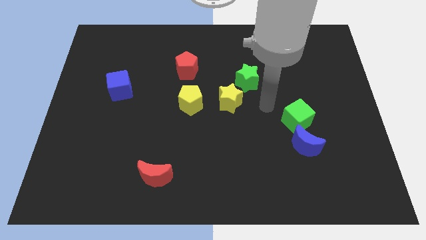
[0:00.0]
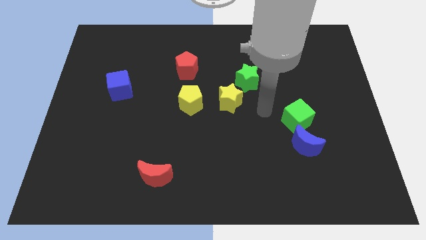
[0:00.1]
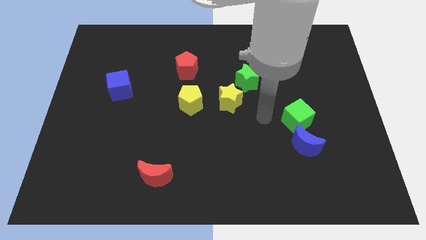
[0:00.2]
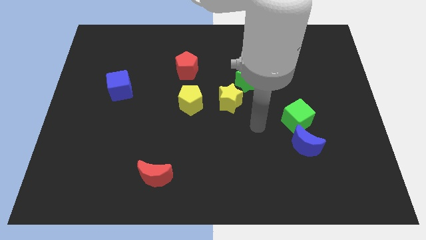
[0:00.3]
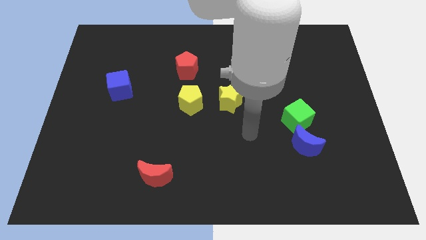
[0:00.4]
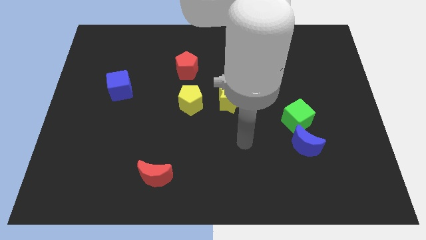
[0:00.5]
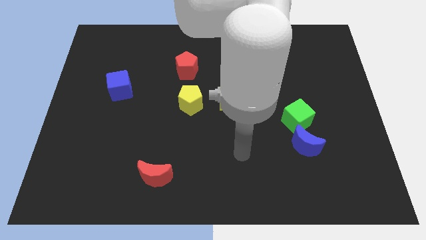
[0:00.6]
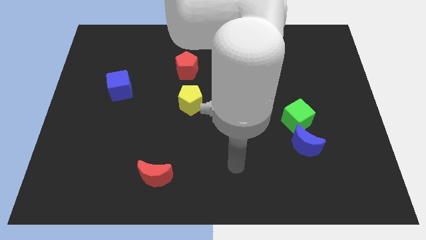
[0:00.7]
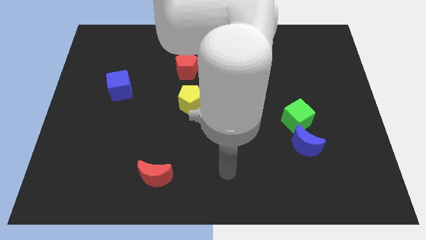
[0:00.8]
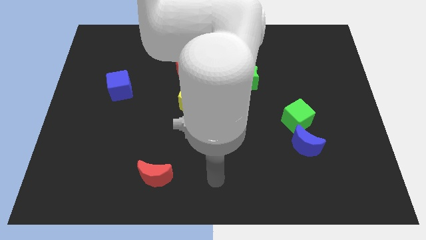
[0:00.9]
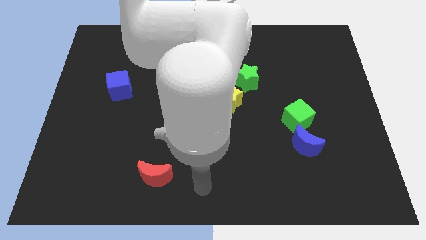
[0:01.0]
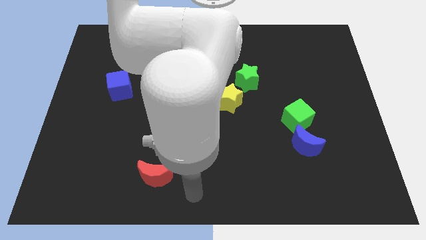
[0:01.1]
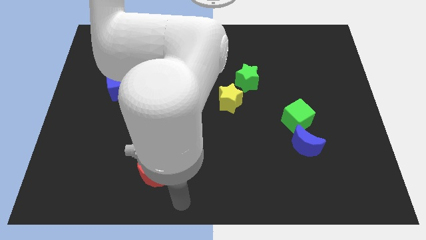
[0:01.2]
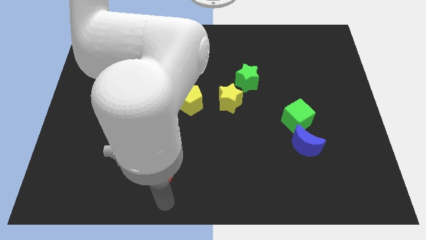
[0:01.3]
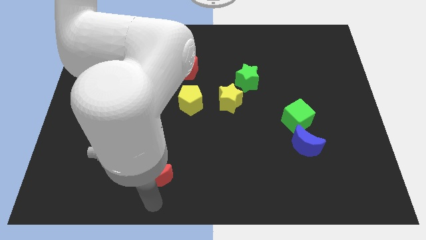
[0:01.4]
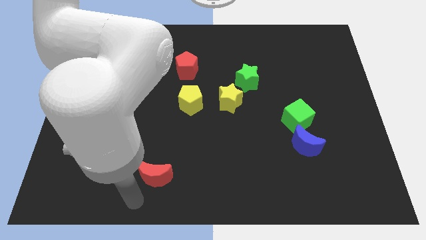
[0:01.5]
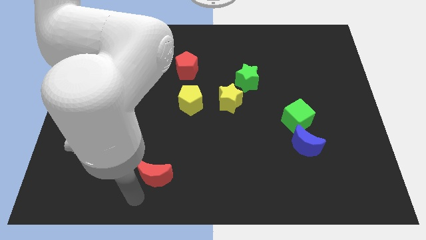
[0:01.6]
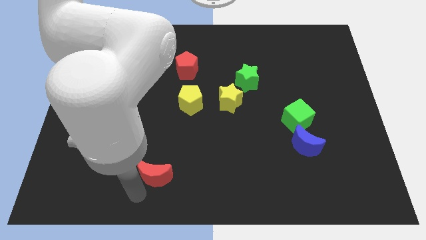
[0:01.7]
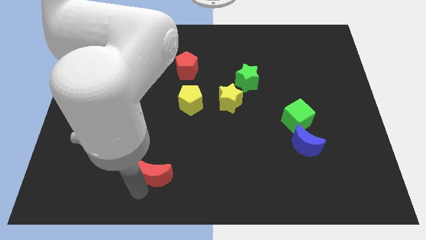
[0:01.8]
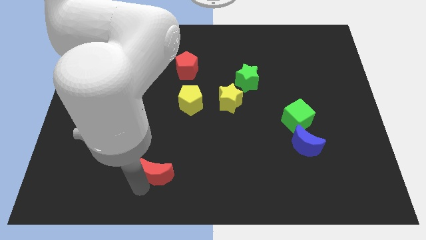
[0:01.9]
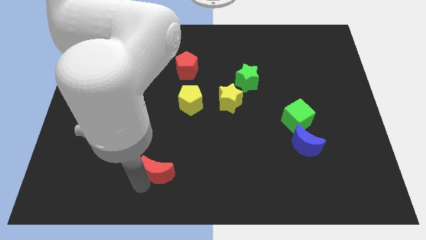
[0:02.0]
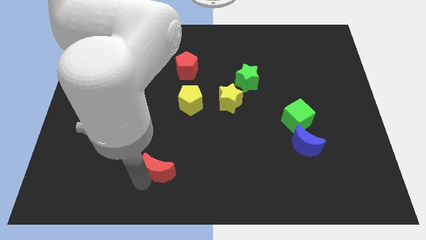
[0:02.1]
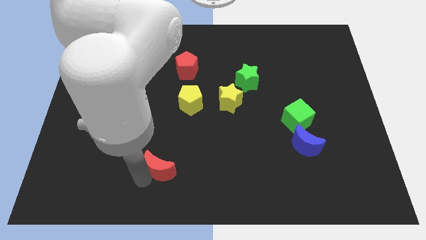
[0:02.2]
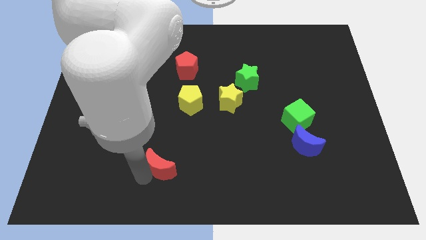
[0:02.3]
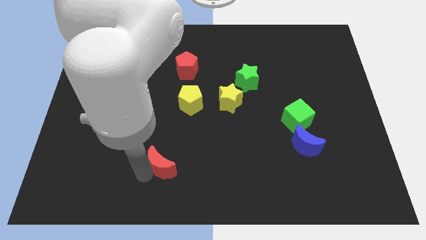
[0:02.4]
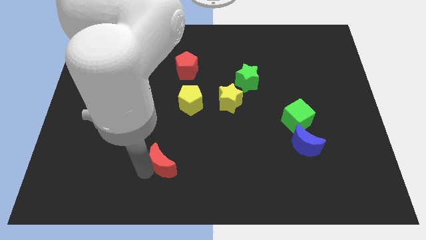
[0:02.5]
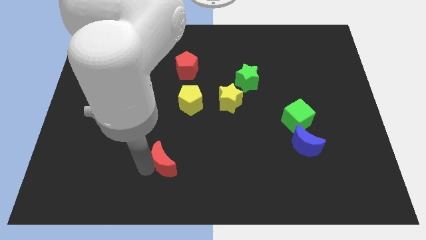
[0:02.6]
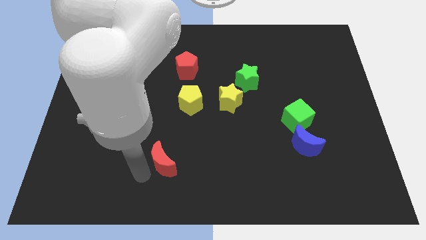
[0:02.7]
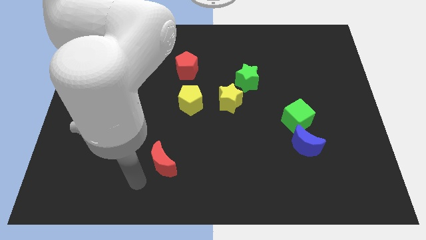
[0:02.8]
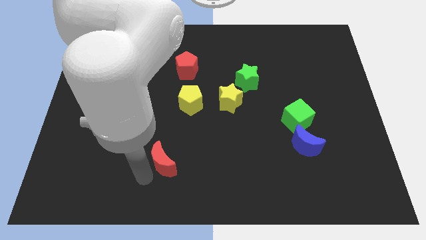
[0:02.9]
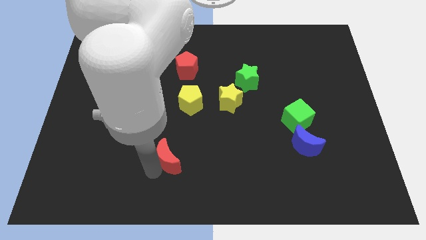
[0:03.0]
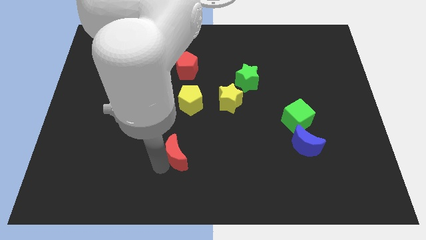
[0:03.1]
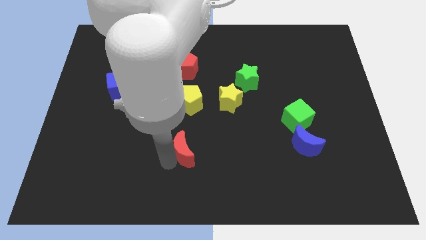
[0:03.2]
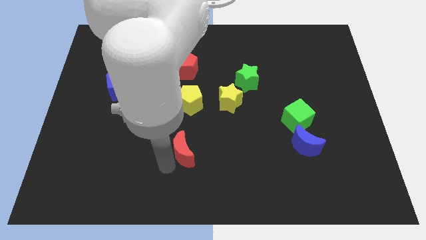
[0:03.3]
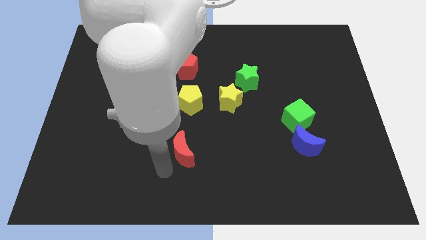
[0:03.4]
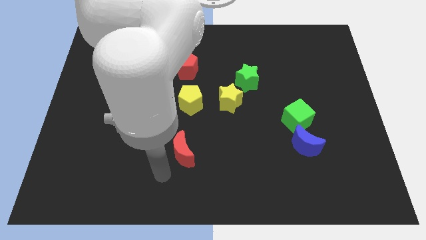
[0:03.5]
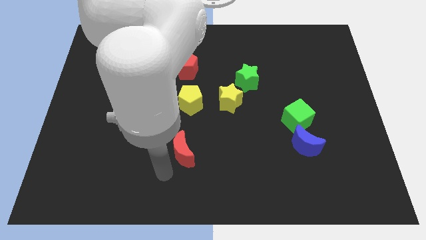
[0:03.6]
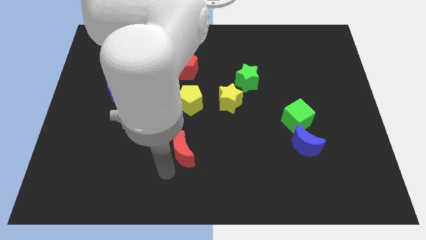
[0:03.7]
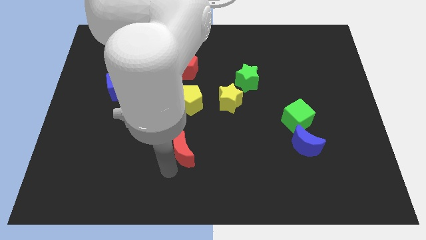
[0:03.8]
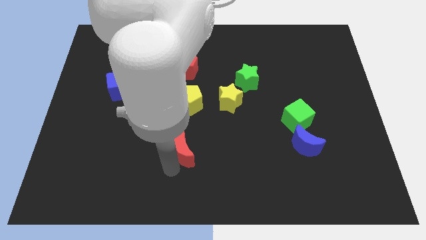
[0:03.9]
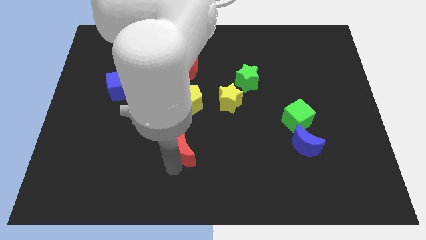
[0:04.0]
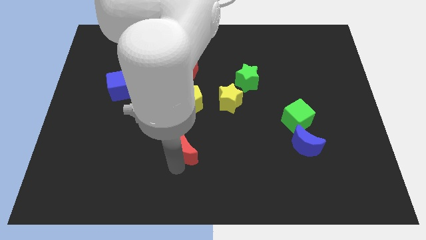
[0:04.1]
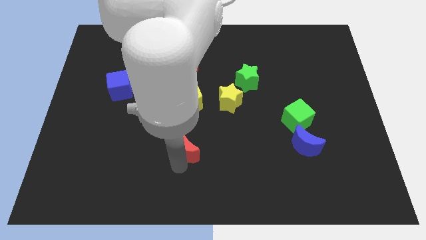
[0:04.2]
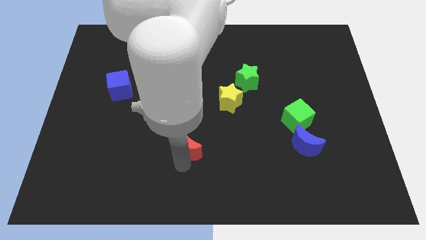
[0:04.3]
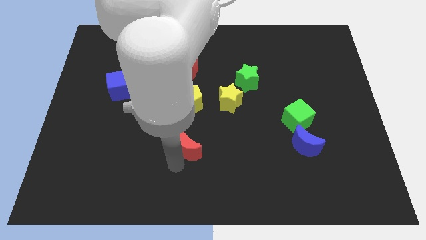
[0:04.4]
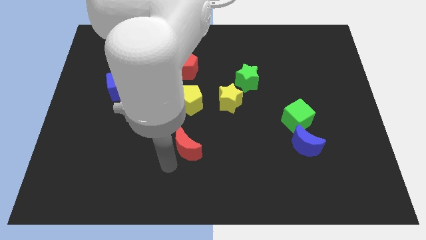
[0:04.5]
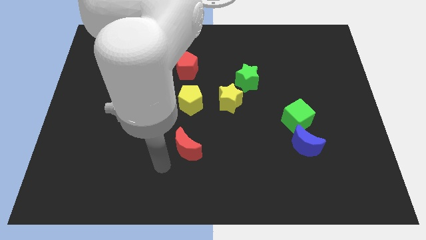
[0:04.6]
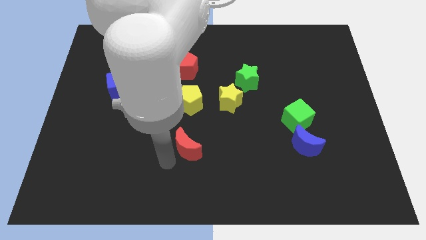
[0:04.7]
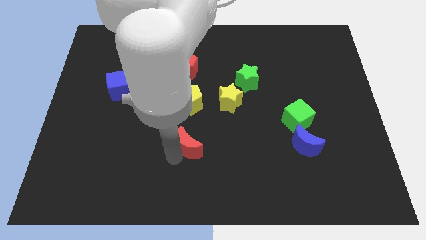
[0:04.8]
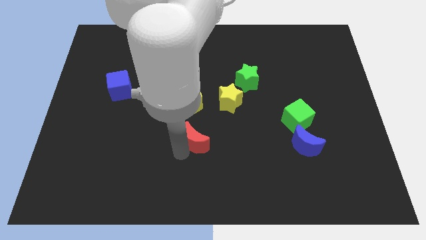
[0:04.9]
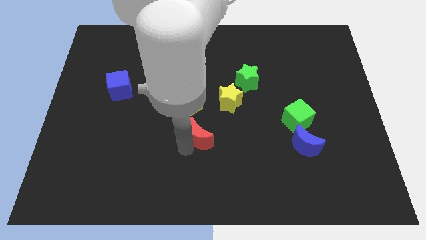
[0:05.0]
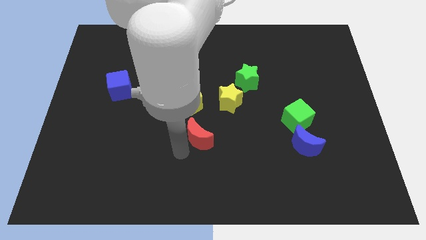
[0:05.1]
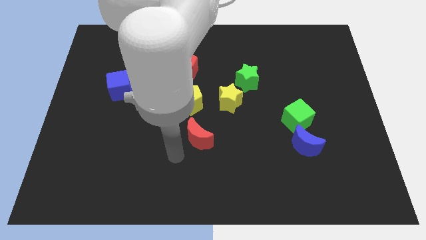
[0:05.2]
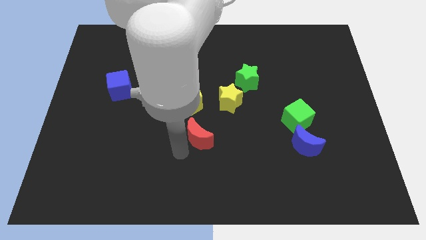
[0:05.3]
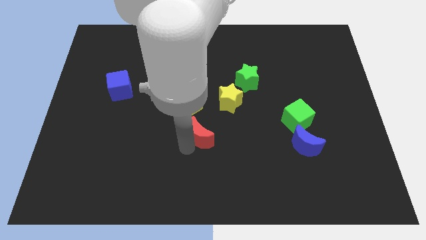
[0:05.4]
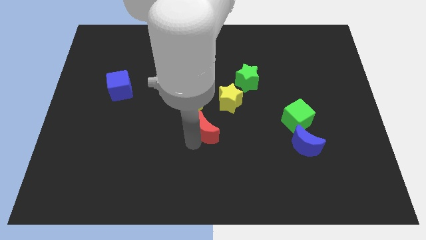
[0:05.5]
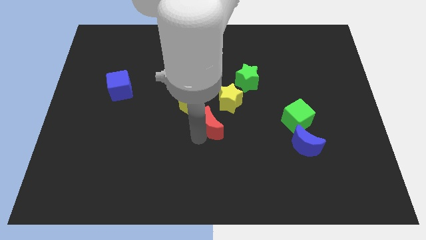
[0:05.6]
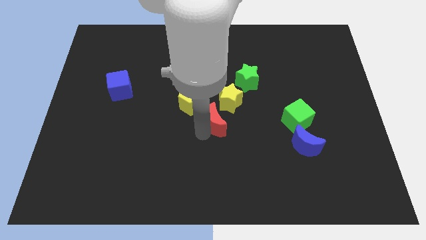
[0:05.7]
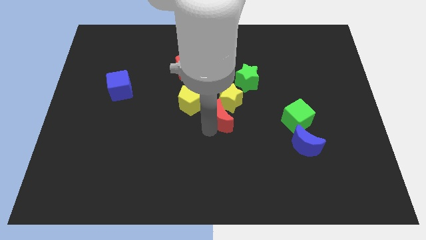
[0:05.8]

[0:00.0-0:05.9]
move the red moon close to the yellow star

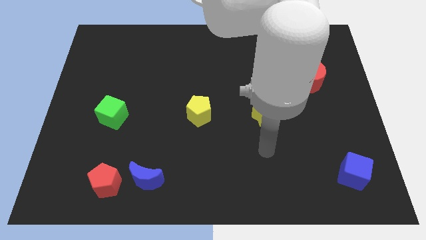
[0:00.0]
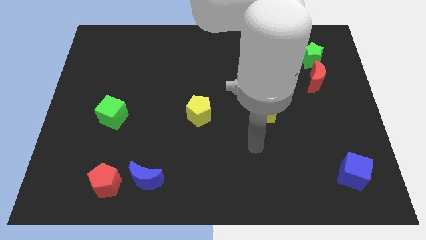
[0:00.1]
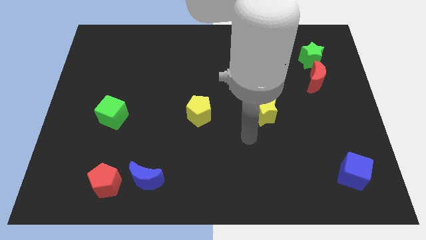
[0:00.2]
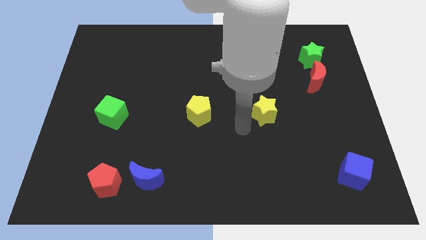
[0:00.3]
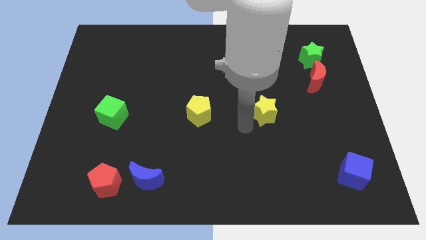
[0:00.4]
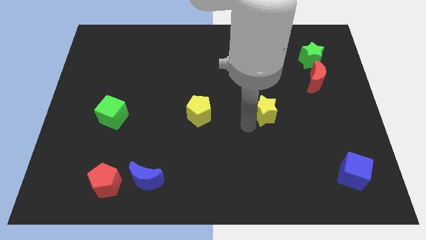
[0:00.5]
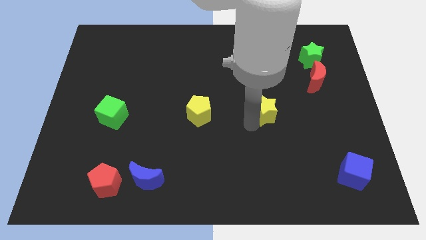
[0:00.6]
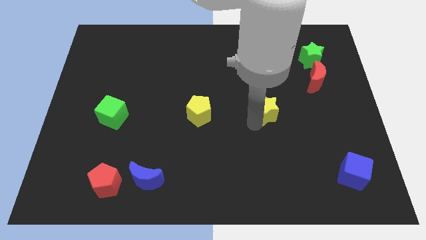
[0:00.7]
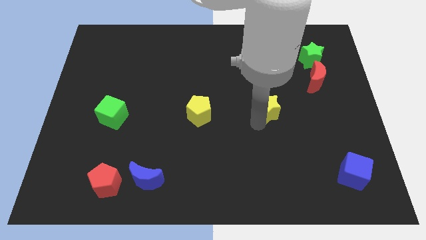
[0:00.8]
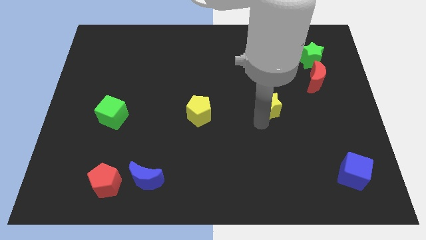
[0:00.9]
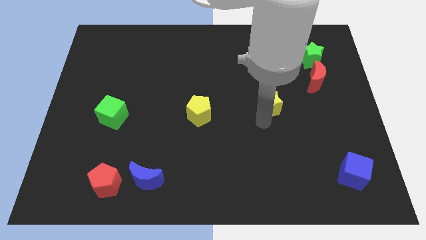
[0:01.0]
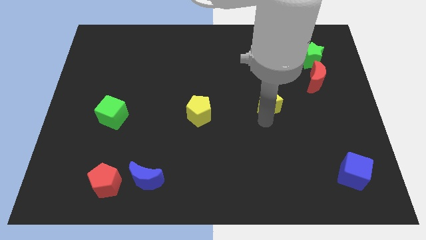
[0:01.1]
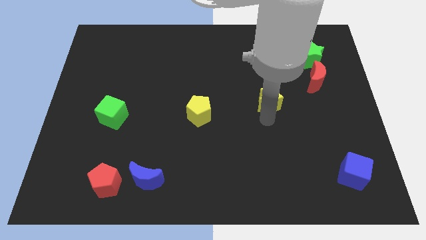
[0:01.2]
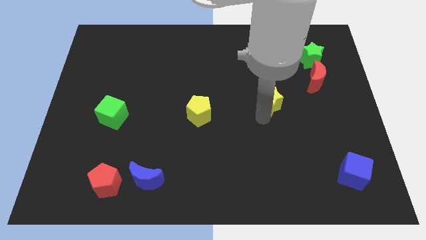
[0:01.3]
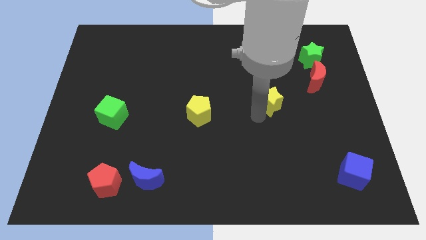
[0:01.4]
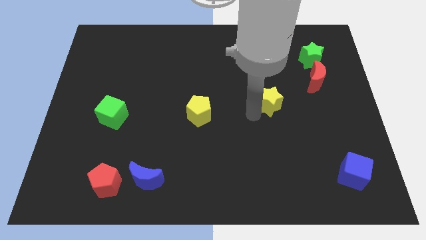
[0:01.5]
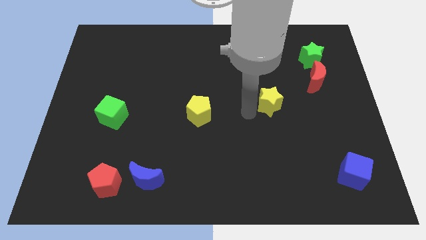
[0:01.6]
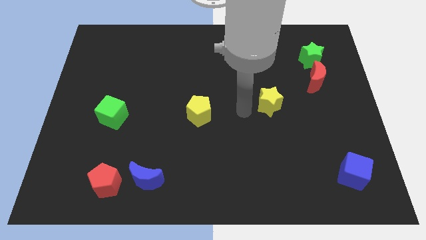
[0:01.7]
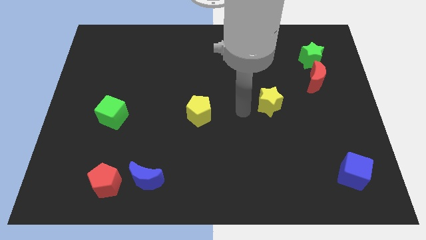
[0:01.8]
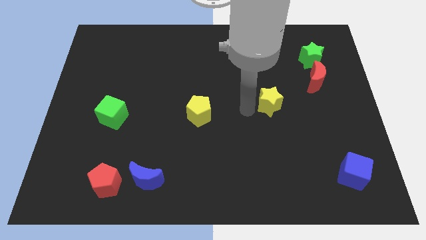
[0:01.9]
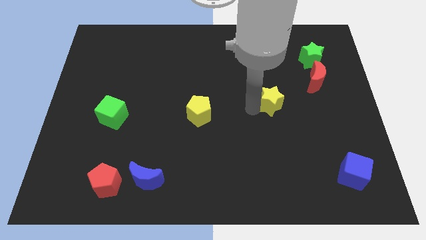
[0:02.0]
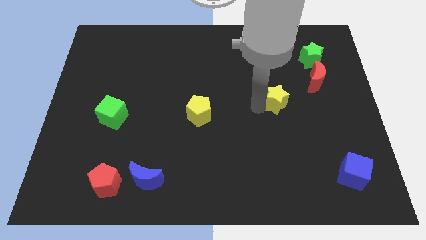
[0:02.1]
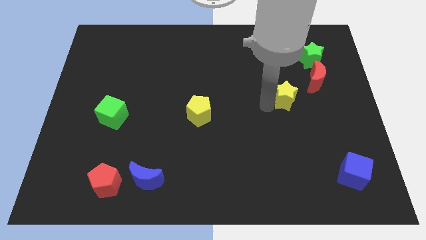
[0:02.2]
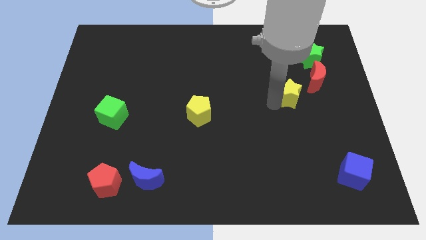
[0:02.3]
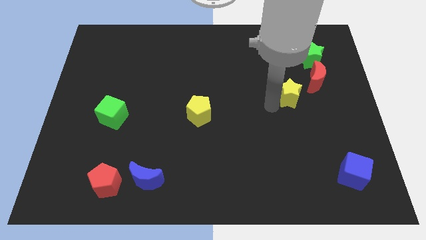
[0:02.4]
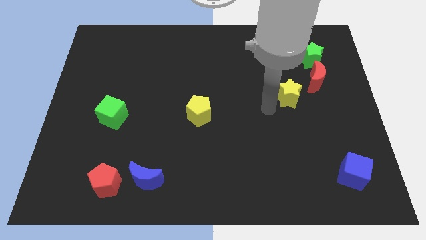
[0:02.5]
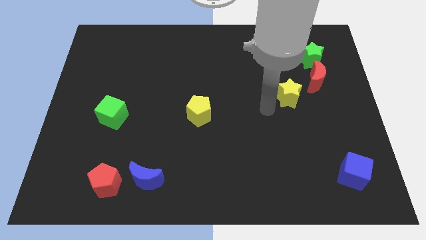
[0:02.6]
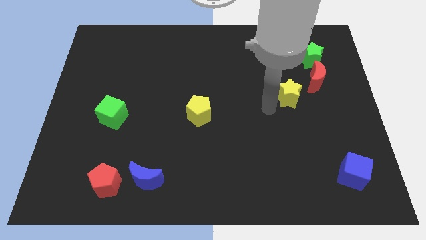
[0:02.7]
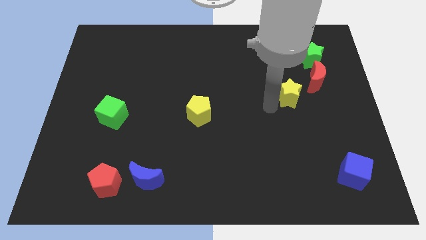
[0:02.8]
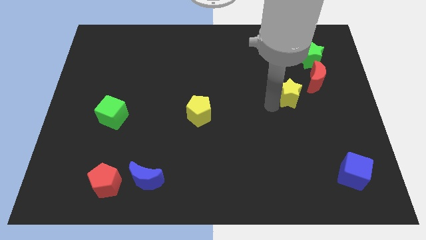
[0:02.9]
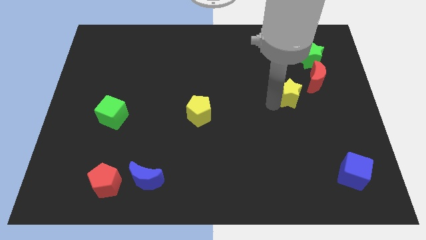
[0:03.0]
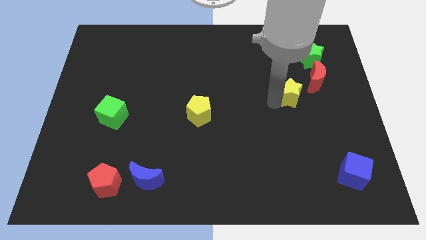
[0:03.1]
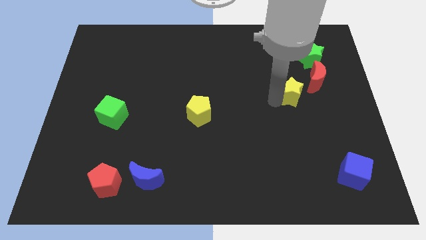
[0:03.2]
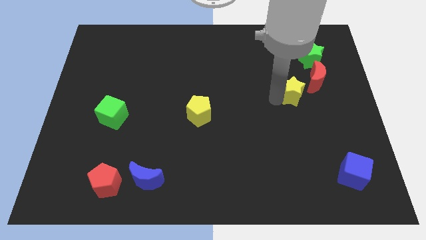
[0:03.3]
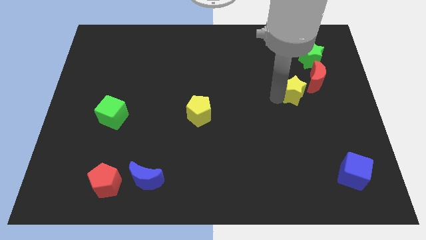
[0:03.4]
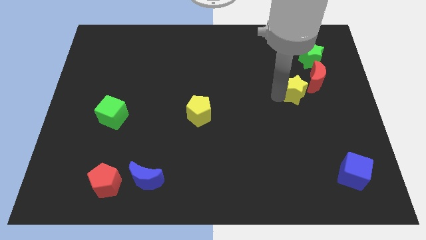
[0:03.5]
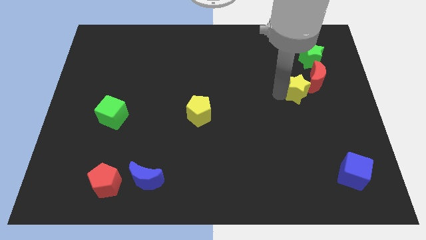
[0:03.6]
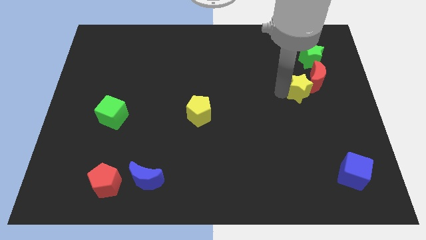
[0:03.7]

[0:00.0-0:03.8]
slide the yellow star towards the red moon
